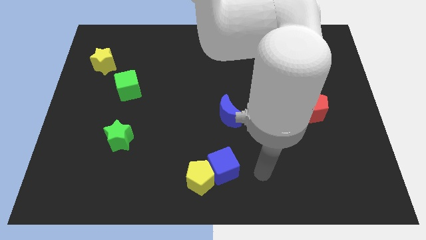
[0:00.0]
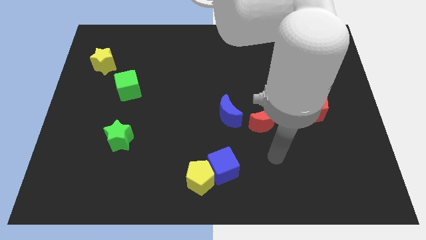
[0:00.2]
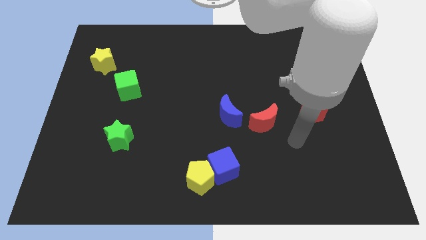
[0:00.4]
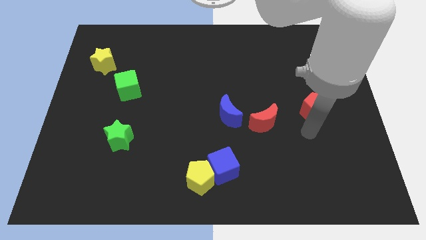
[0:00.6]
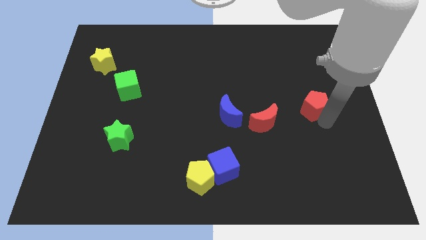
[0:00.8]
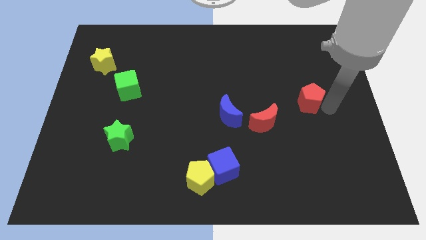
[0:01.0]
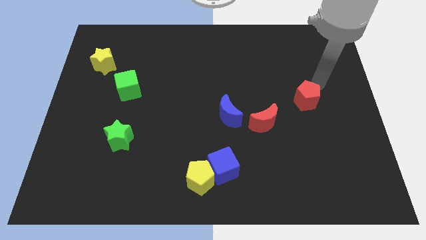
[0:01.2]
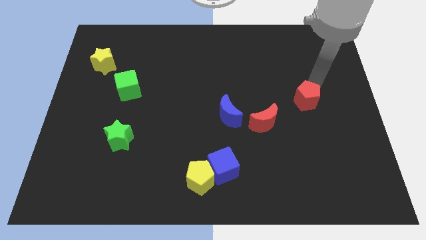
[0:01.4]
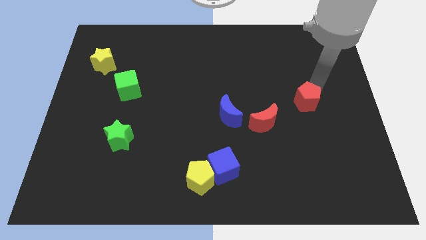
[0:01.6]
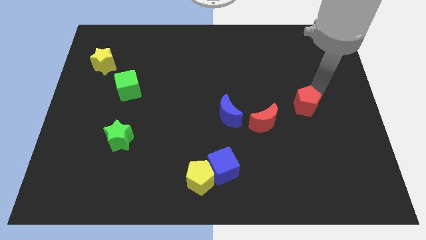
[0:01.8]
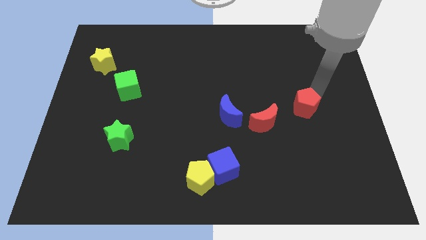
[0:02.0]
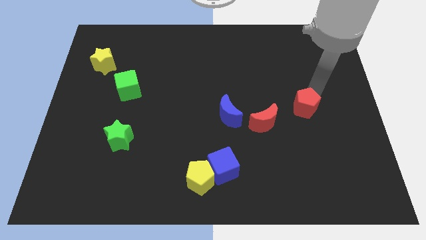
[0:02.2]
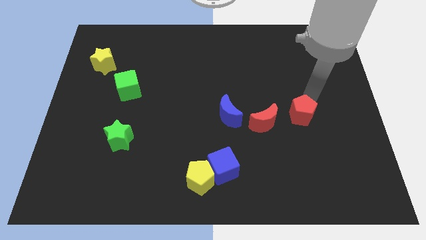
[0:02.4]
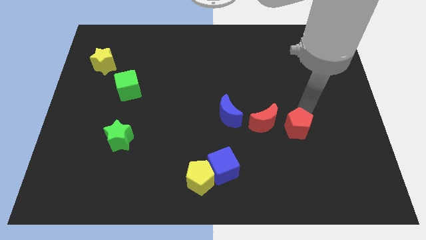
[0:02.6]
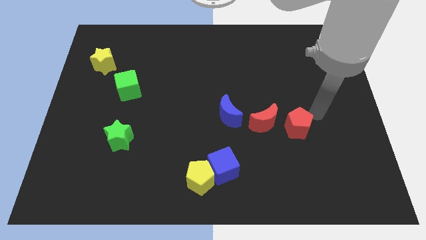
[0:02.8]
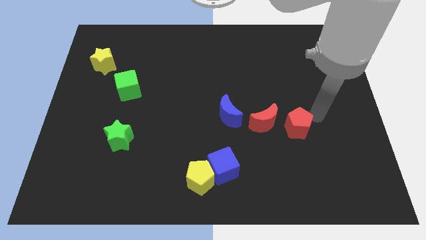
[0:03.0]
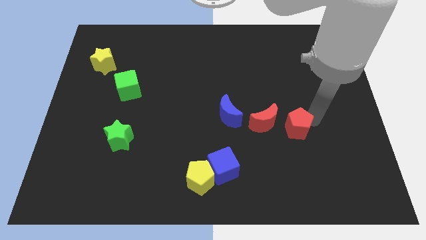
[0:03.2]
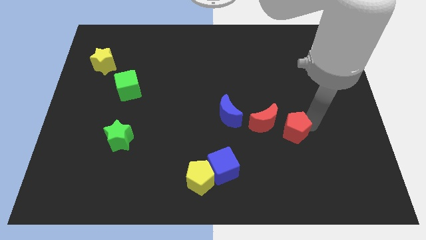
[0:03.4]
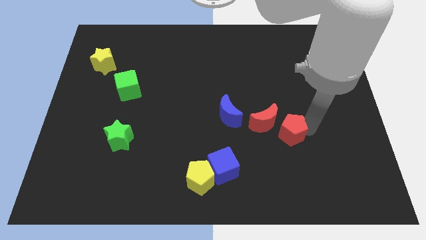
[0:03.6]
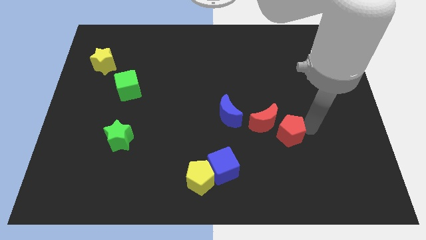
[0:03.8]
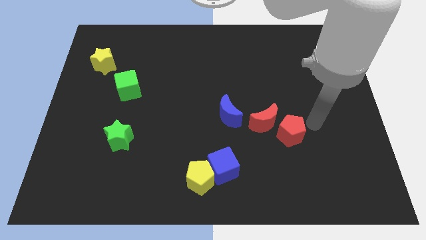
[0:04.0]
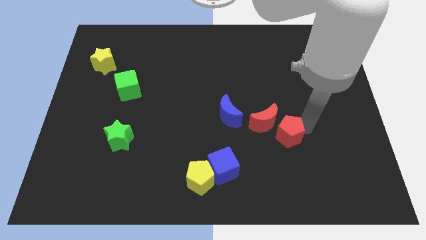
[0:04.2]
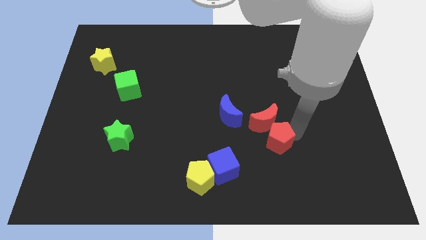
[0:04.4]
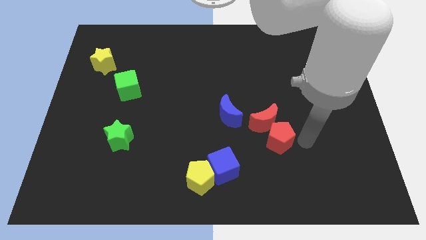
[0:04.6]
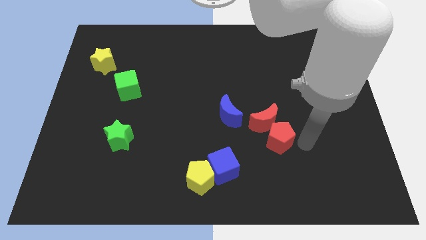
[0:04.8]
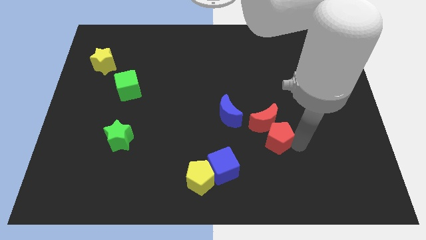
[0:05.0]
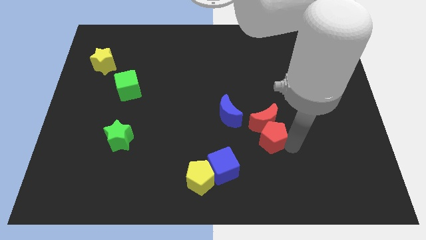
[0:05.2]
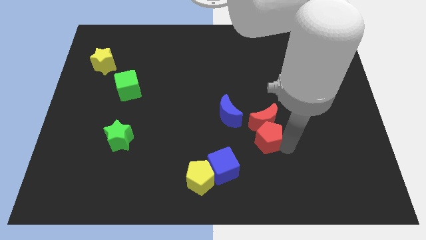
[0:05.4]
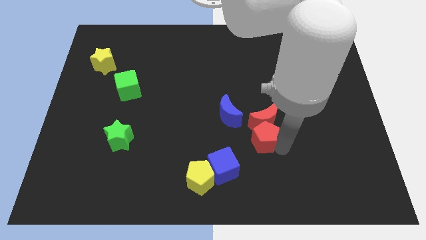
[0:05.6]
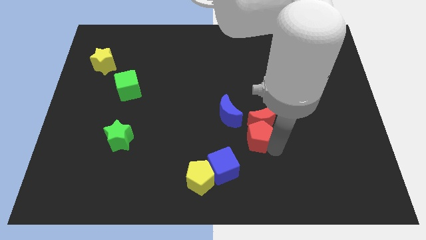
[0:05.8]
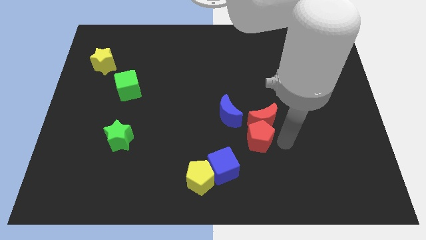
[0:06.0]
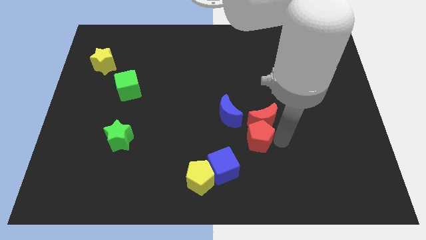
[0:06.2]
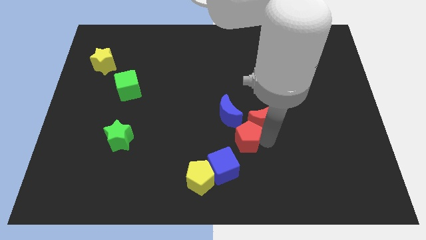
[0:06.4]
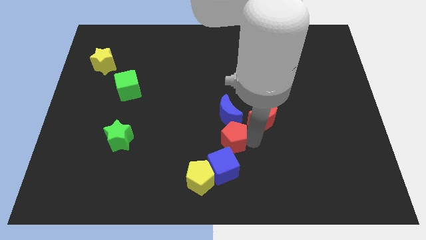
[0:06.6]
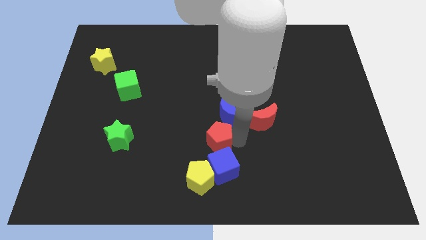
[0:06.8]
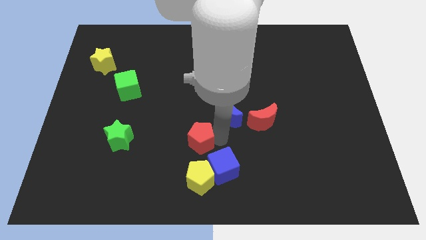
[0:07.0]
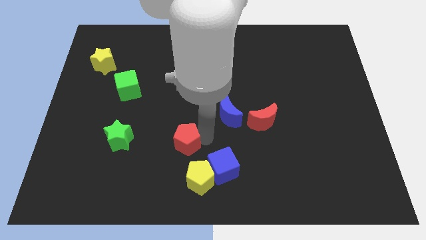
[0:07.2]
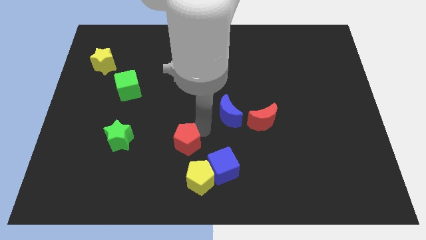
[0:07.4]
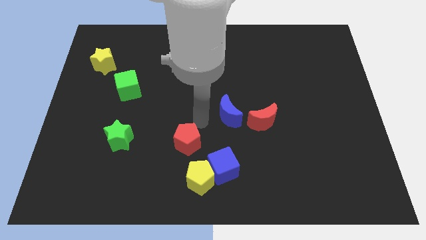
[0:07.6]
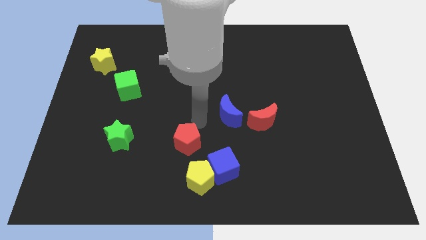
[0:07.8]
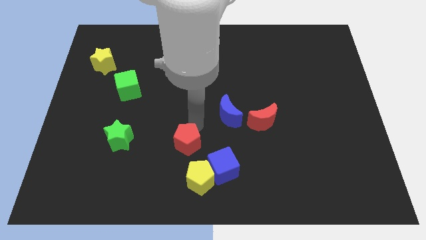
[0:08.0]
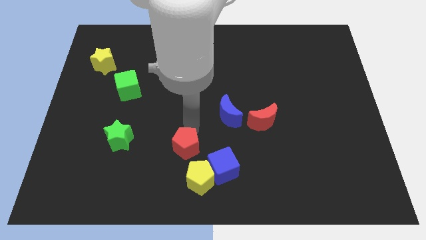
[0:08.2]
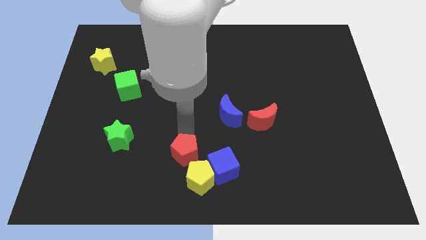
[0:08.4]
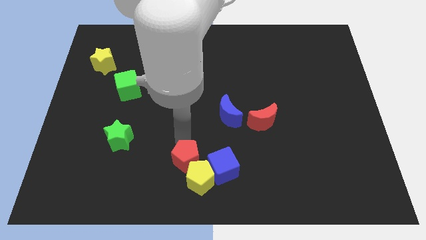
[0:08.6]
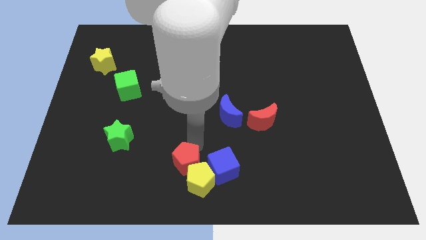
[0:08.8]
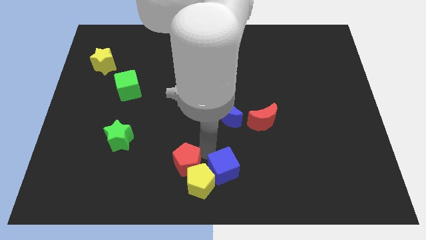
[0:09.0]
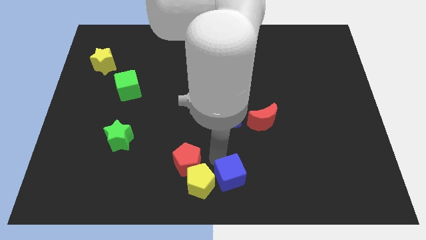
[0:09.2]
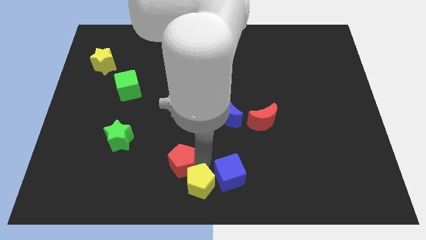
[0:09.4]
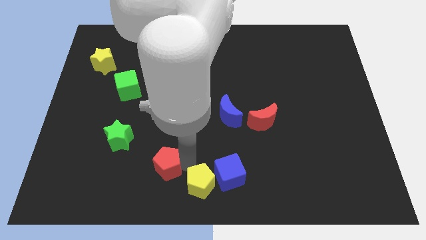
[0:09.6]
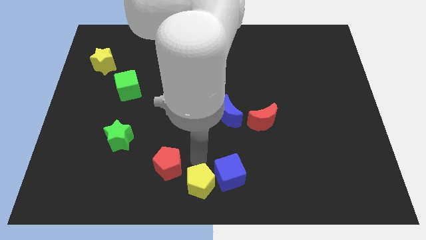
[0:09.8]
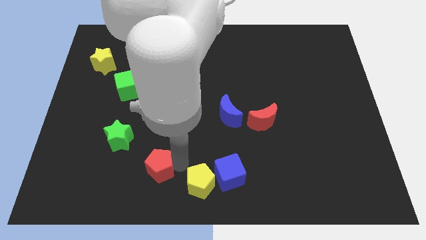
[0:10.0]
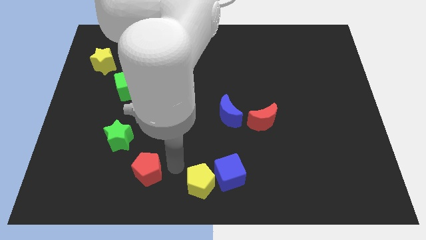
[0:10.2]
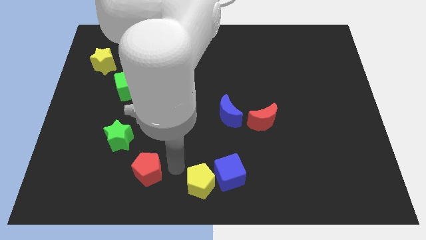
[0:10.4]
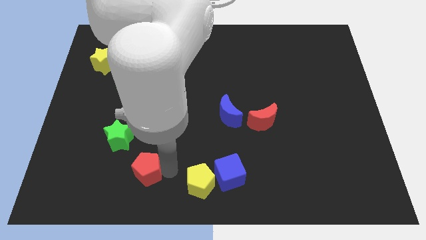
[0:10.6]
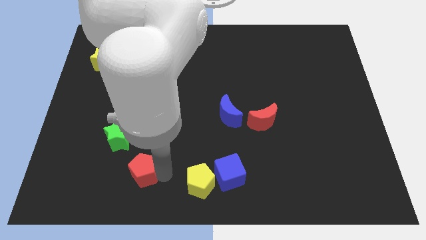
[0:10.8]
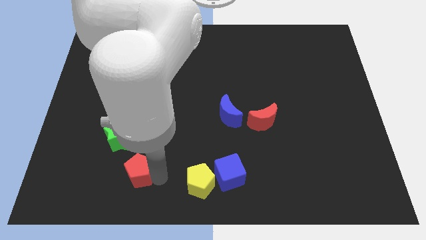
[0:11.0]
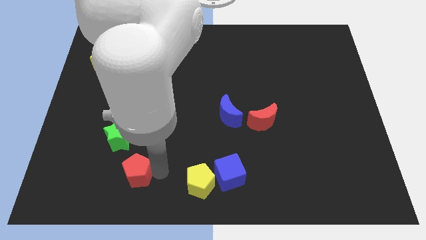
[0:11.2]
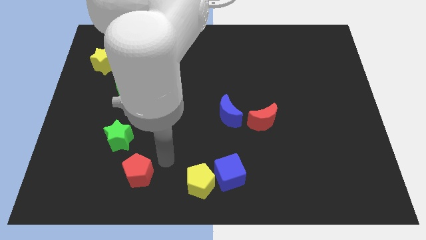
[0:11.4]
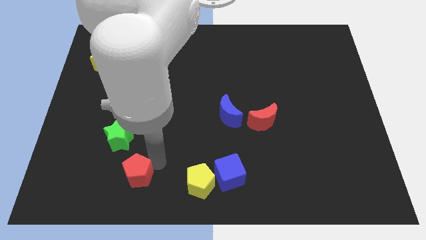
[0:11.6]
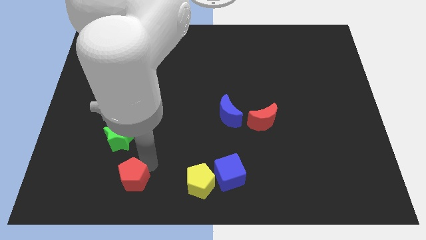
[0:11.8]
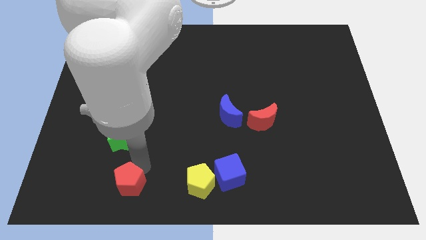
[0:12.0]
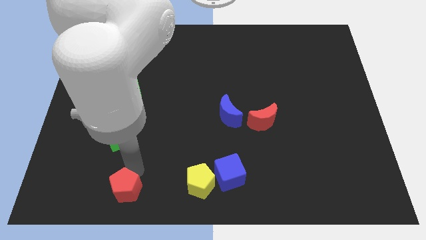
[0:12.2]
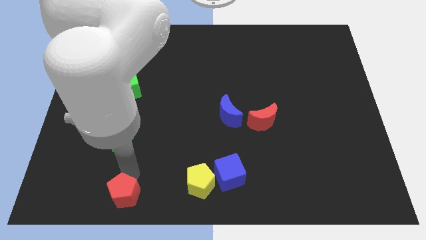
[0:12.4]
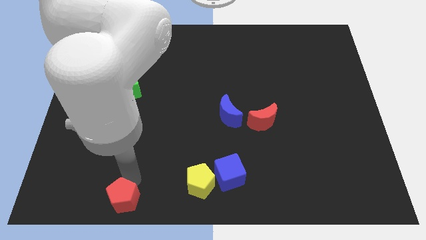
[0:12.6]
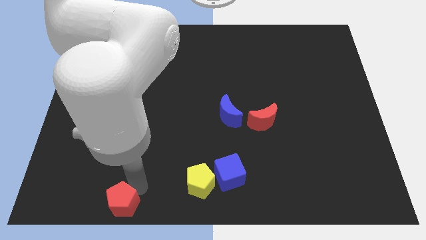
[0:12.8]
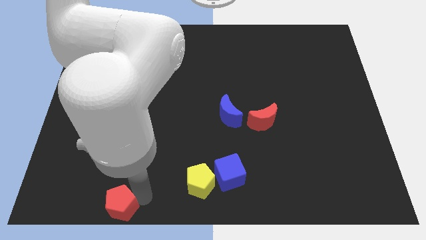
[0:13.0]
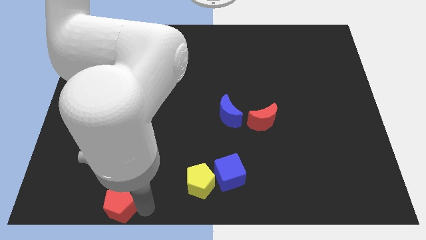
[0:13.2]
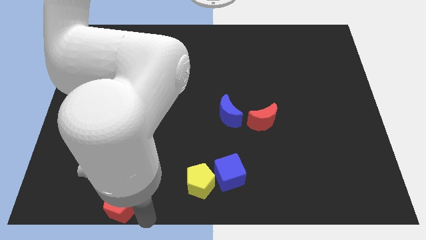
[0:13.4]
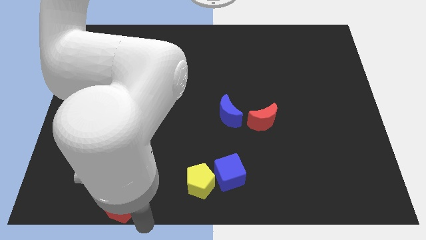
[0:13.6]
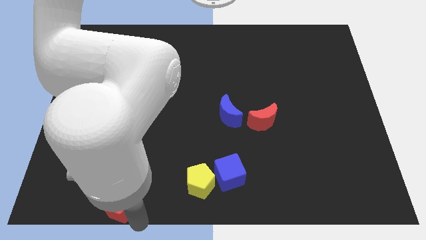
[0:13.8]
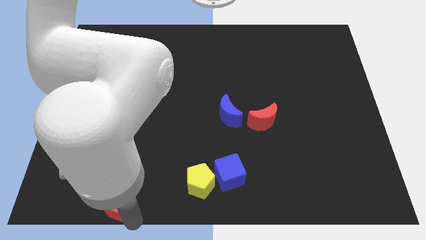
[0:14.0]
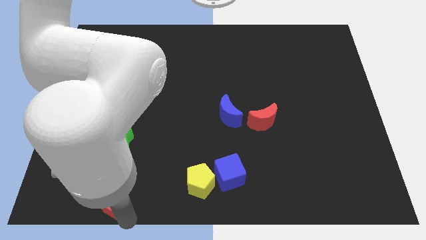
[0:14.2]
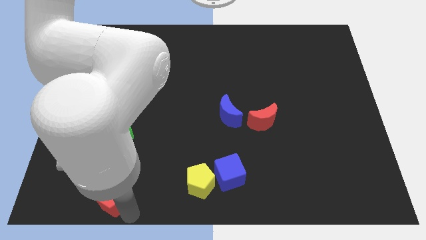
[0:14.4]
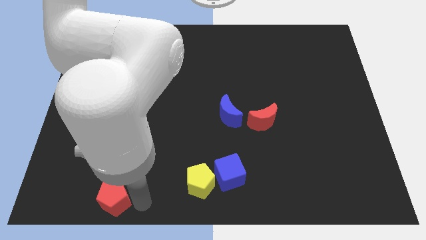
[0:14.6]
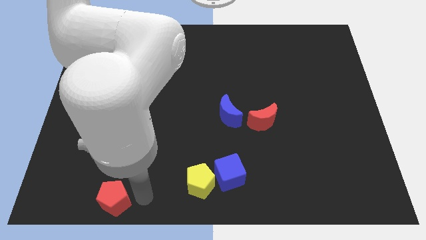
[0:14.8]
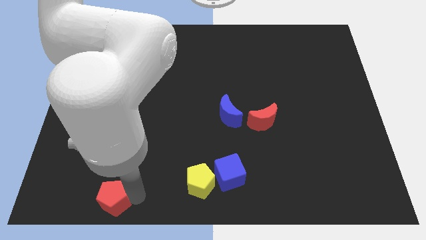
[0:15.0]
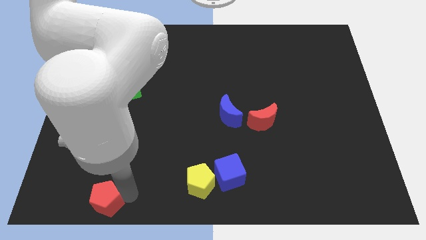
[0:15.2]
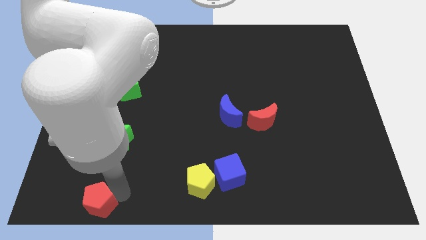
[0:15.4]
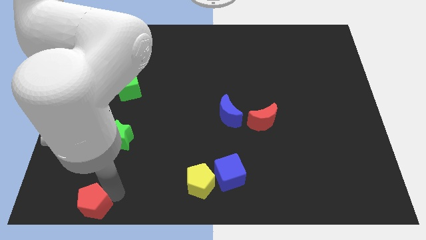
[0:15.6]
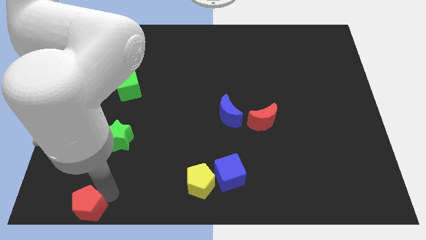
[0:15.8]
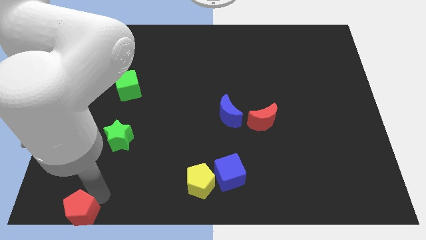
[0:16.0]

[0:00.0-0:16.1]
push the red pentagon to the lower left corner
